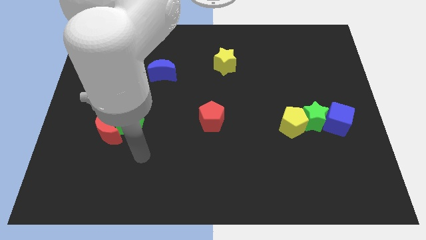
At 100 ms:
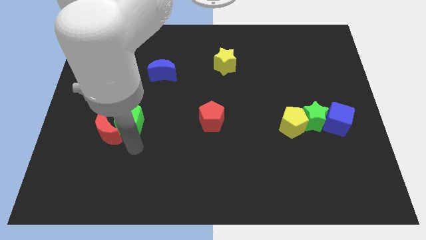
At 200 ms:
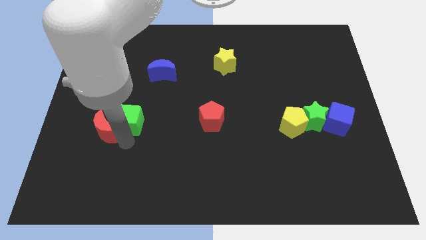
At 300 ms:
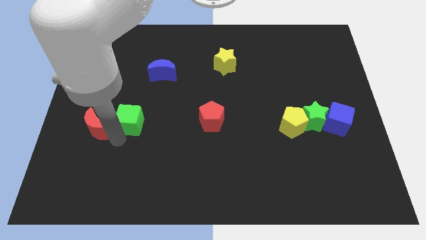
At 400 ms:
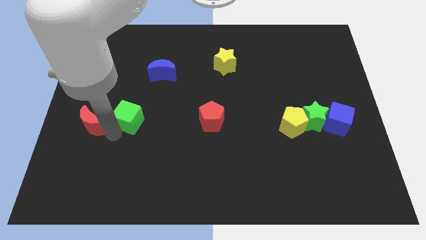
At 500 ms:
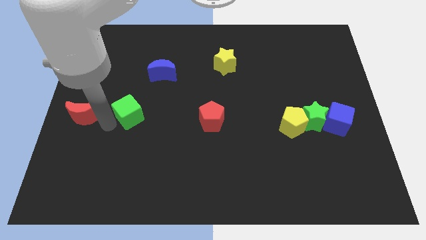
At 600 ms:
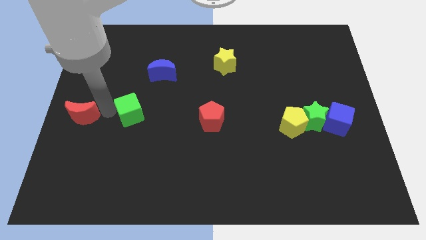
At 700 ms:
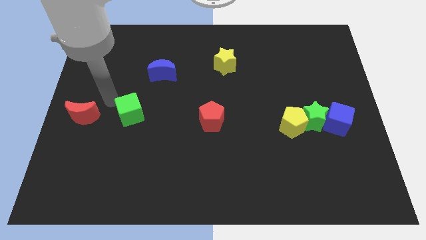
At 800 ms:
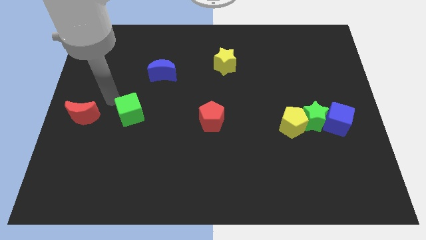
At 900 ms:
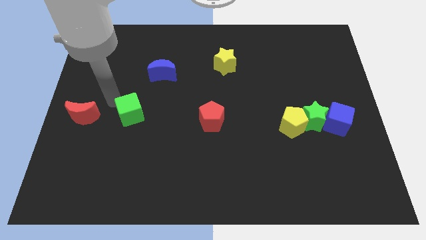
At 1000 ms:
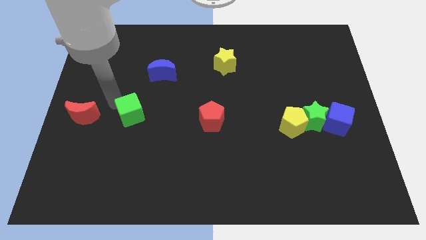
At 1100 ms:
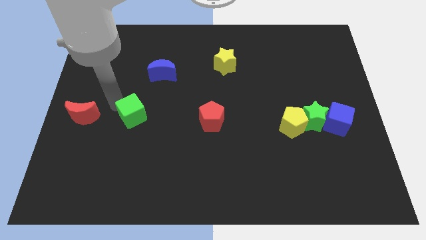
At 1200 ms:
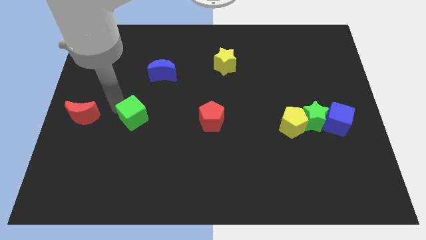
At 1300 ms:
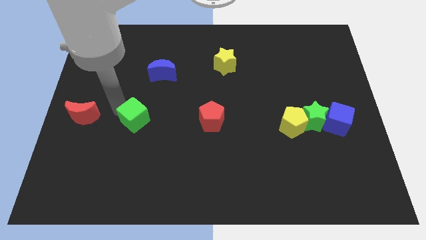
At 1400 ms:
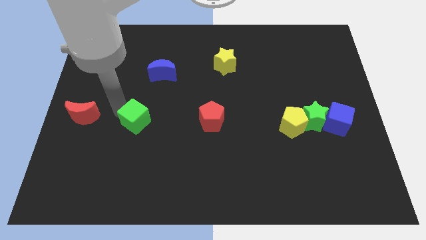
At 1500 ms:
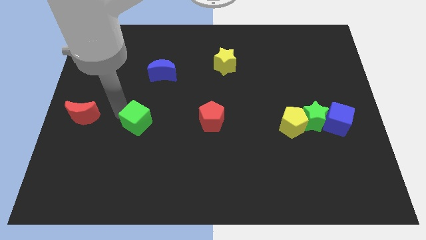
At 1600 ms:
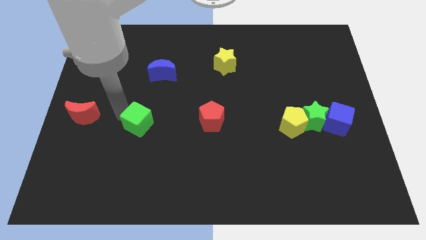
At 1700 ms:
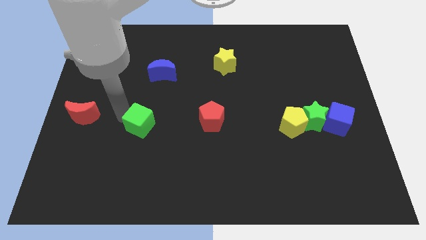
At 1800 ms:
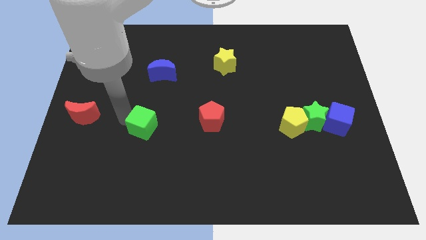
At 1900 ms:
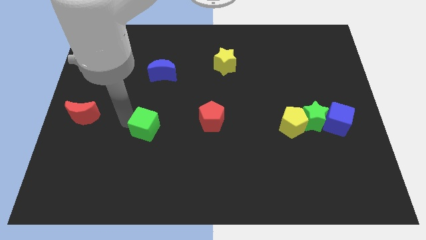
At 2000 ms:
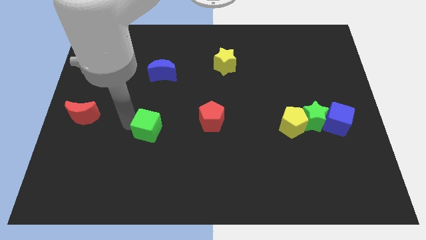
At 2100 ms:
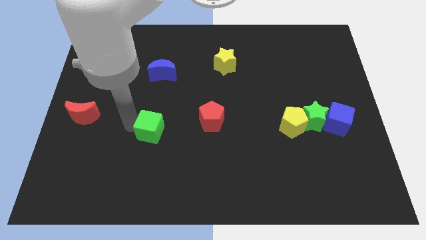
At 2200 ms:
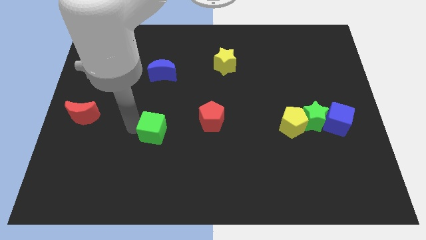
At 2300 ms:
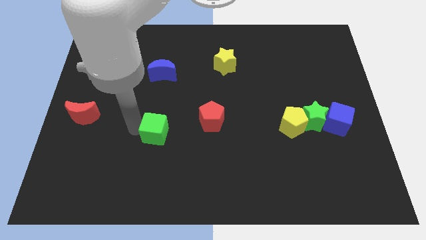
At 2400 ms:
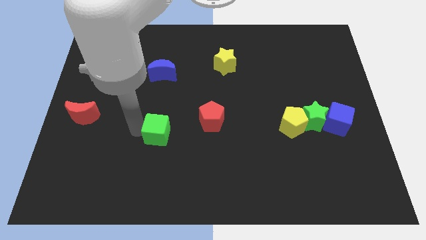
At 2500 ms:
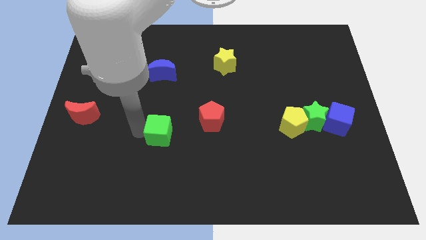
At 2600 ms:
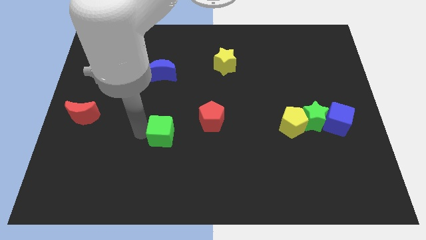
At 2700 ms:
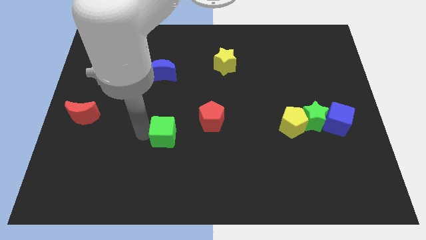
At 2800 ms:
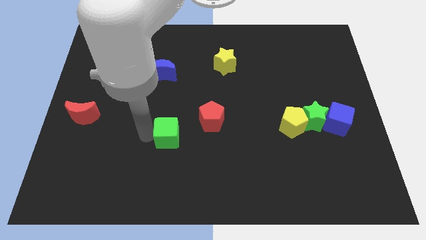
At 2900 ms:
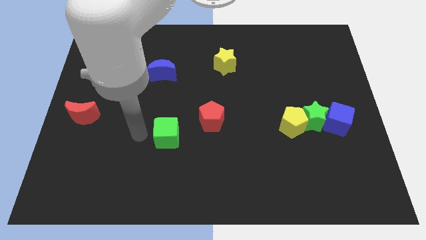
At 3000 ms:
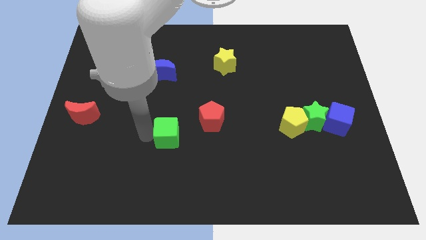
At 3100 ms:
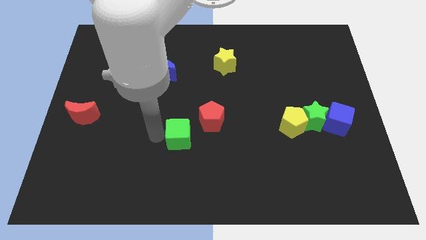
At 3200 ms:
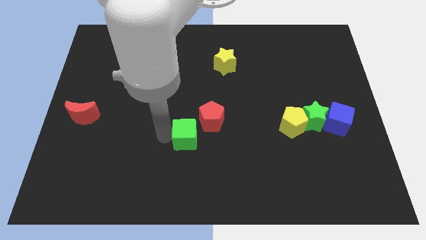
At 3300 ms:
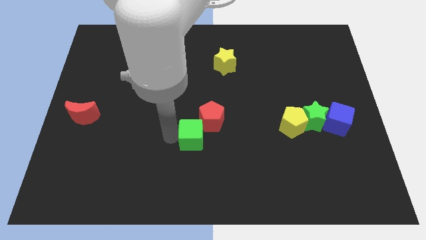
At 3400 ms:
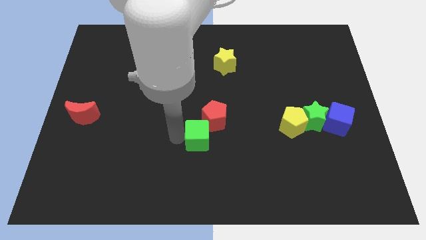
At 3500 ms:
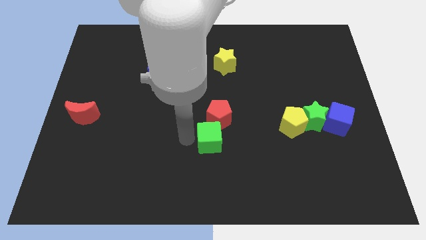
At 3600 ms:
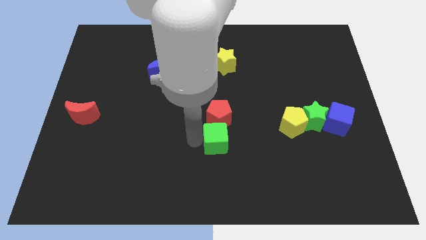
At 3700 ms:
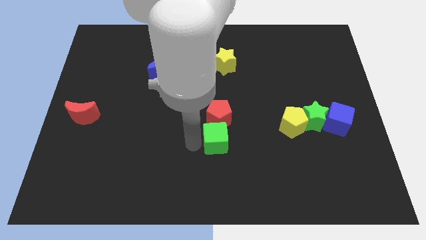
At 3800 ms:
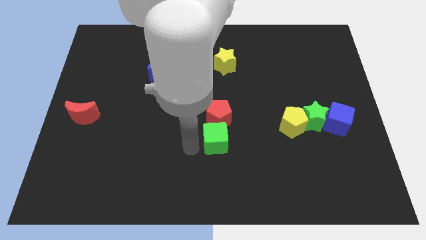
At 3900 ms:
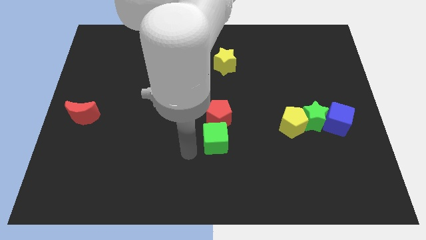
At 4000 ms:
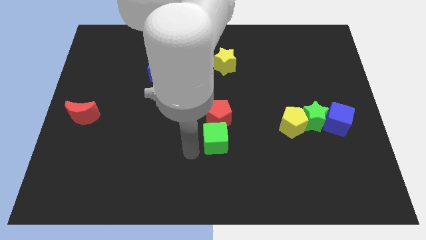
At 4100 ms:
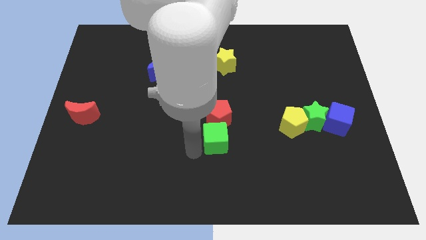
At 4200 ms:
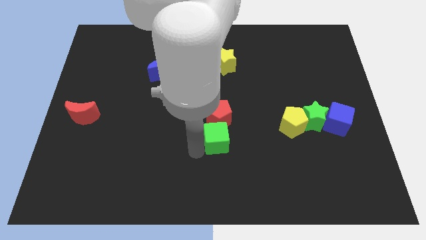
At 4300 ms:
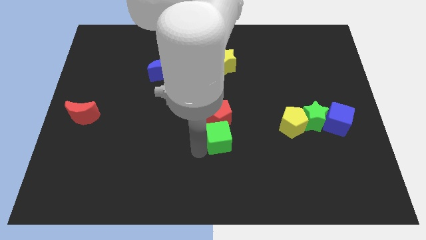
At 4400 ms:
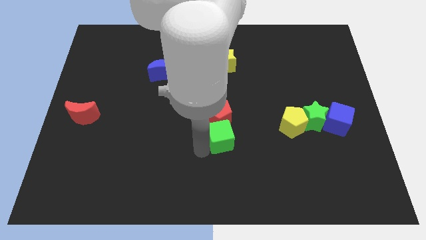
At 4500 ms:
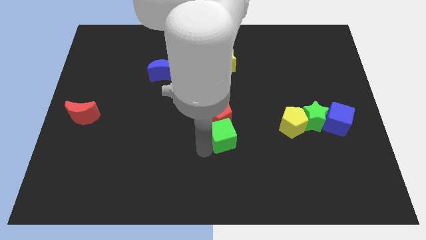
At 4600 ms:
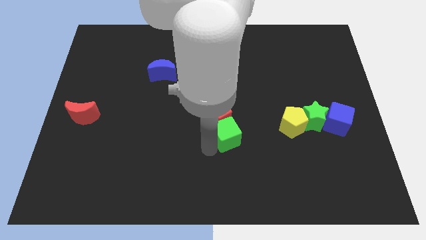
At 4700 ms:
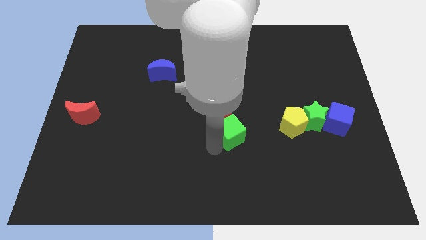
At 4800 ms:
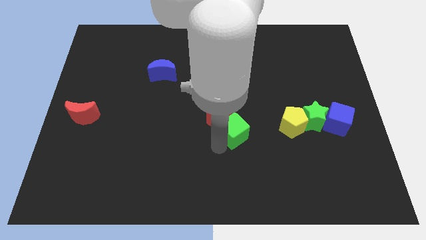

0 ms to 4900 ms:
move the green cube just right of the red pentagon

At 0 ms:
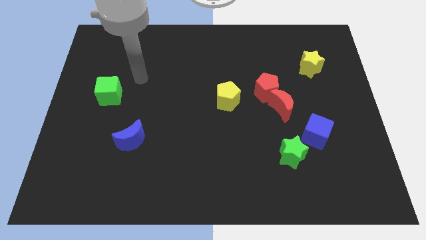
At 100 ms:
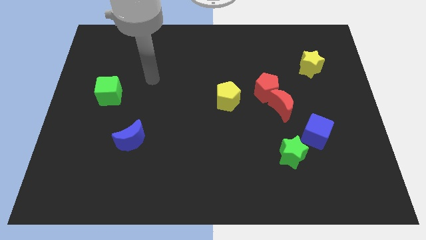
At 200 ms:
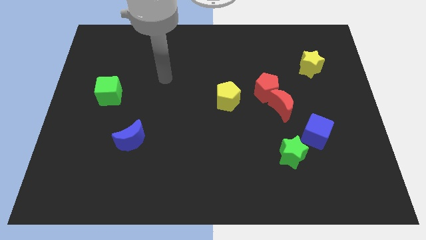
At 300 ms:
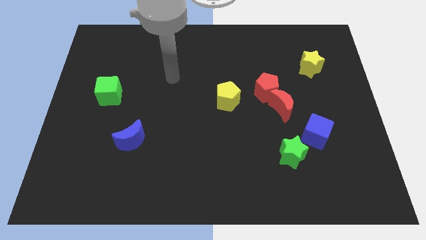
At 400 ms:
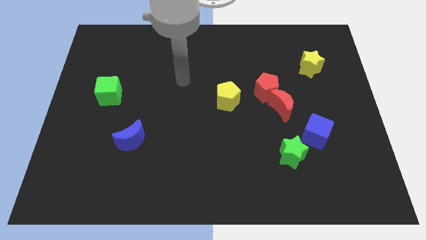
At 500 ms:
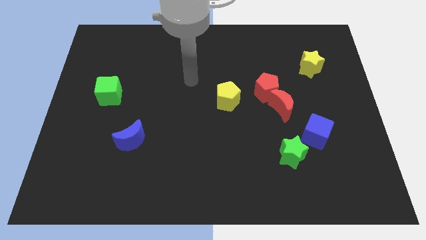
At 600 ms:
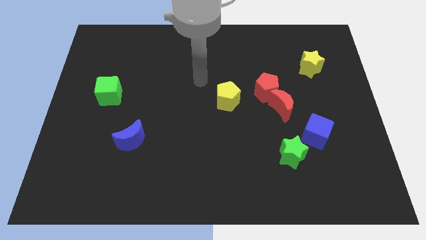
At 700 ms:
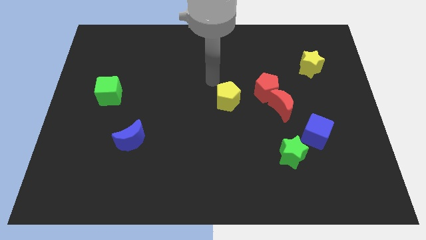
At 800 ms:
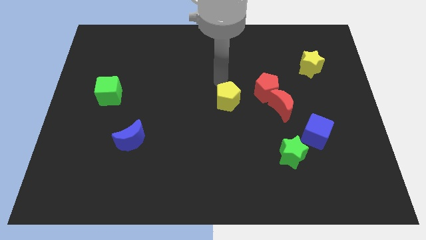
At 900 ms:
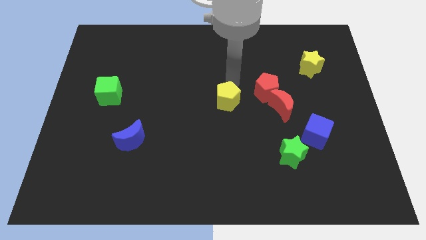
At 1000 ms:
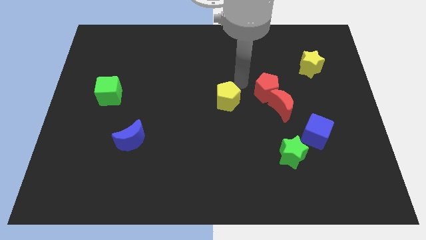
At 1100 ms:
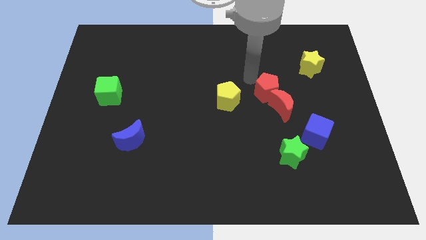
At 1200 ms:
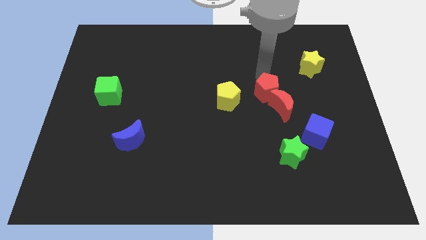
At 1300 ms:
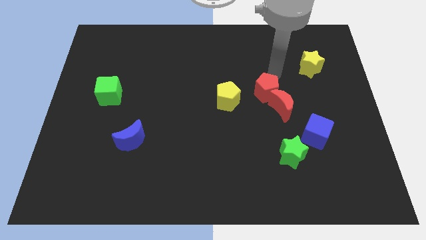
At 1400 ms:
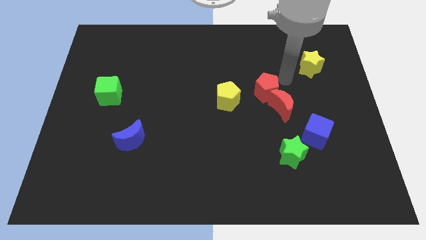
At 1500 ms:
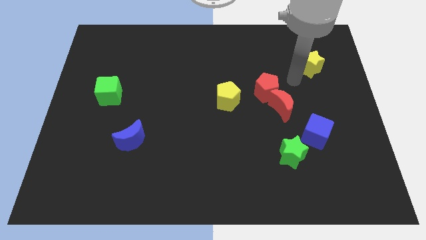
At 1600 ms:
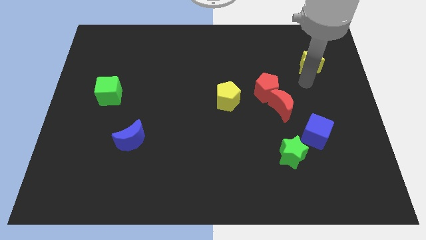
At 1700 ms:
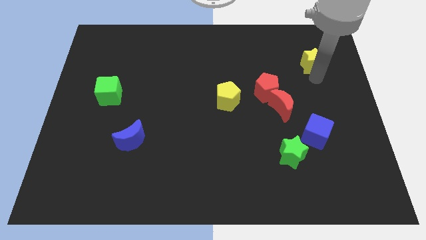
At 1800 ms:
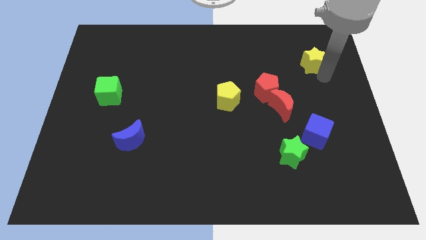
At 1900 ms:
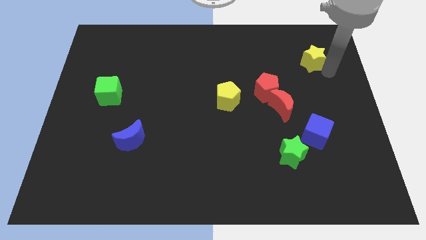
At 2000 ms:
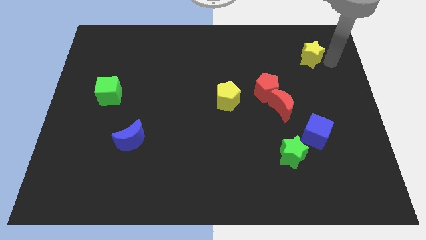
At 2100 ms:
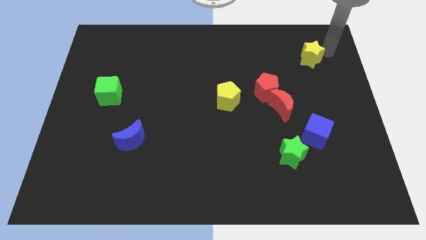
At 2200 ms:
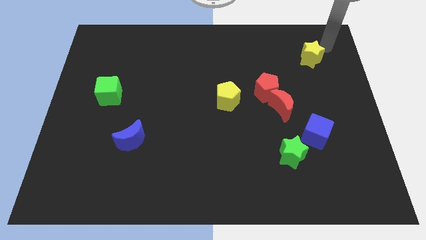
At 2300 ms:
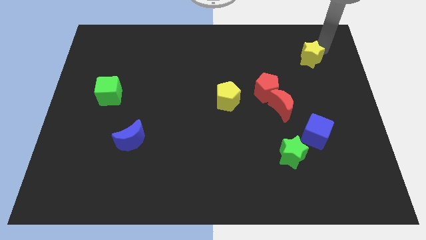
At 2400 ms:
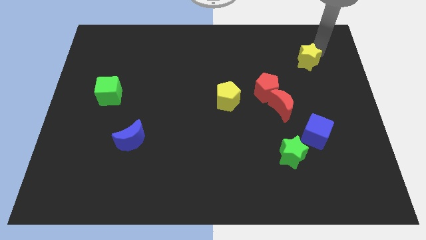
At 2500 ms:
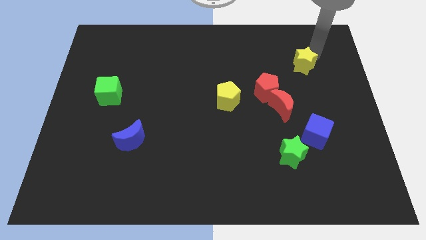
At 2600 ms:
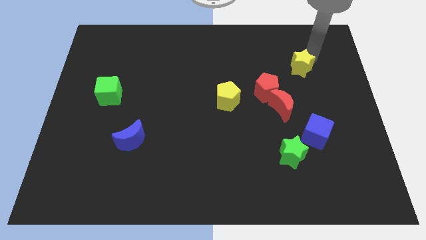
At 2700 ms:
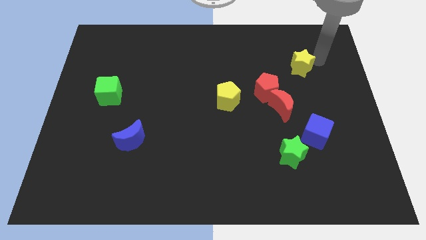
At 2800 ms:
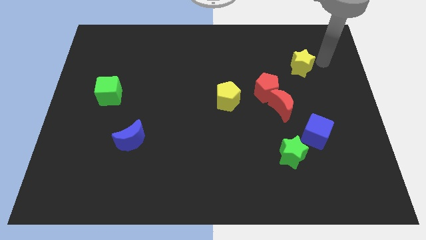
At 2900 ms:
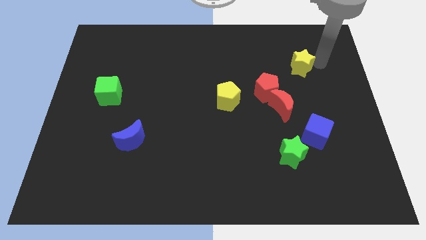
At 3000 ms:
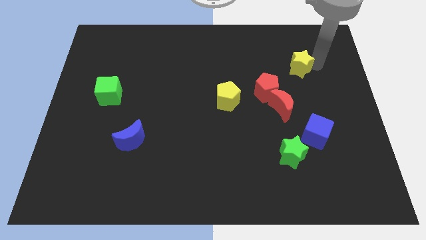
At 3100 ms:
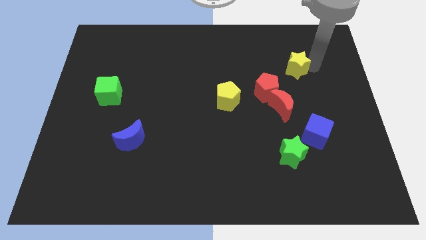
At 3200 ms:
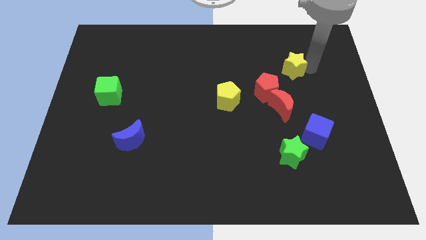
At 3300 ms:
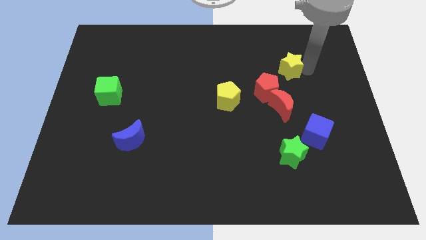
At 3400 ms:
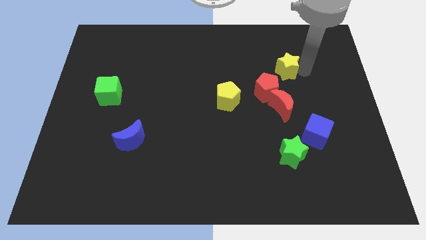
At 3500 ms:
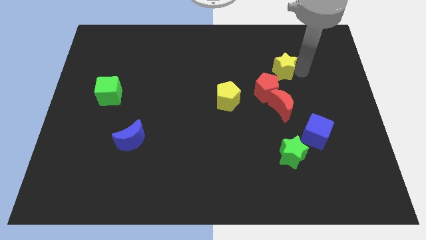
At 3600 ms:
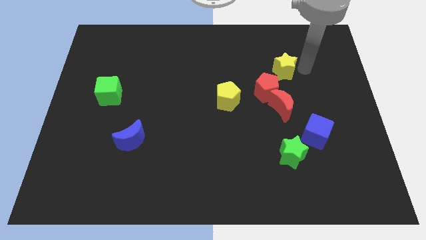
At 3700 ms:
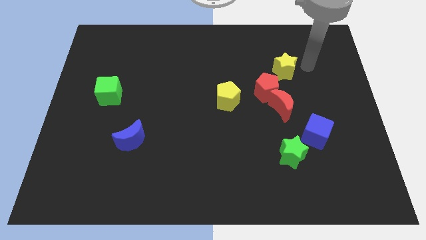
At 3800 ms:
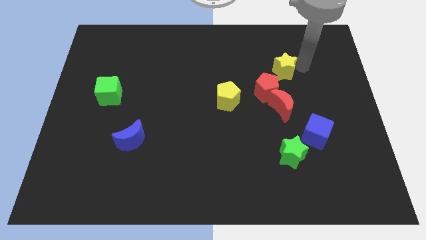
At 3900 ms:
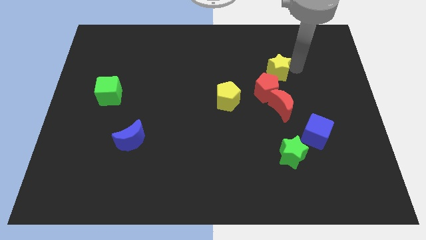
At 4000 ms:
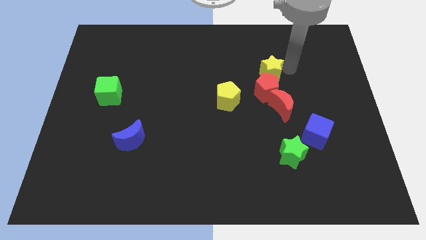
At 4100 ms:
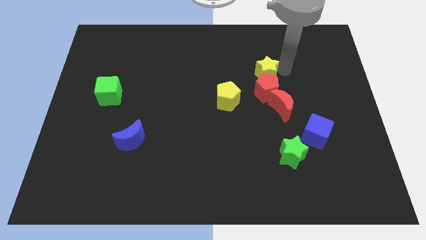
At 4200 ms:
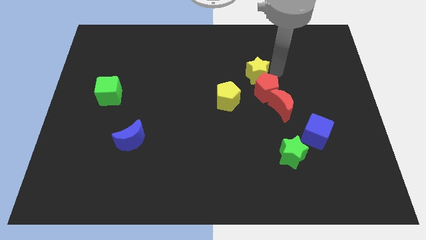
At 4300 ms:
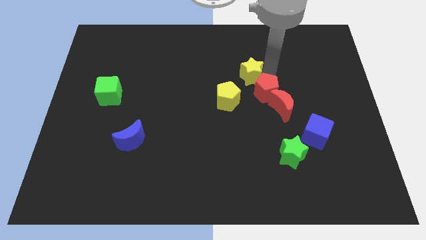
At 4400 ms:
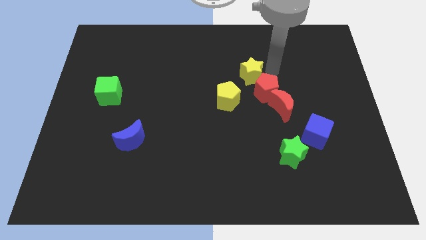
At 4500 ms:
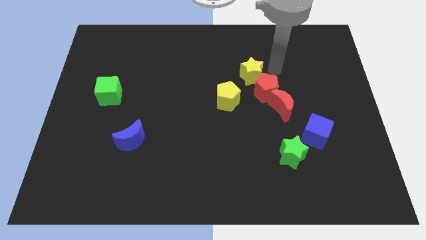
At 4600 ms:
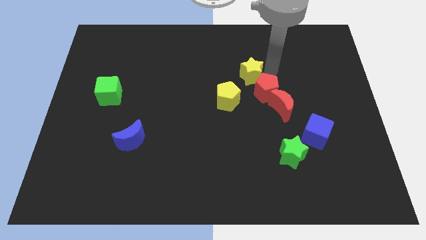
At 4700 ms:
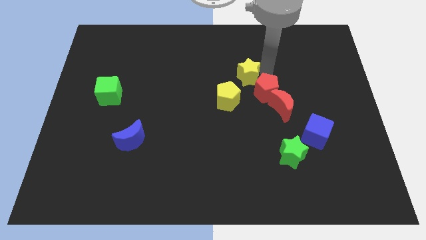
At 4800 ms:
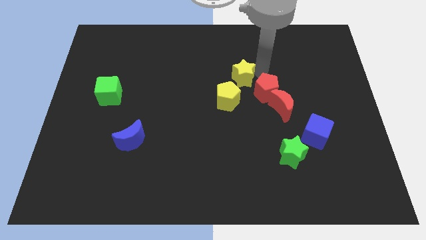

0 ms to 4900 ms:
move the yellow star to the left of the red pentagon
